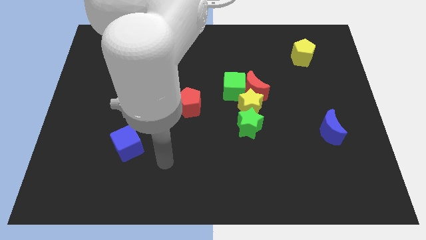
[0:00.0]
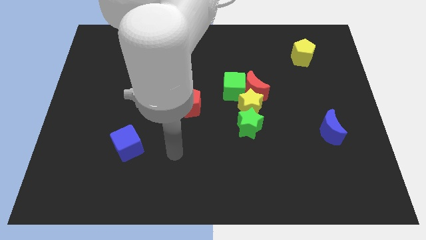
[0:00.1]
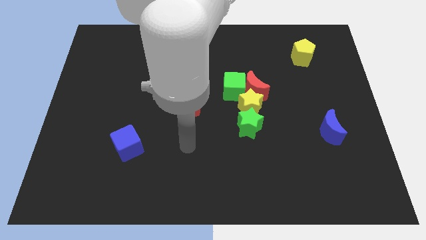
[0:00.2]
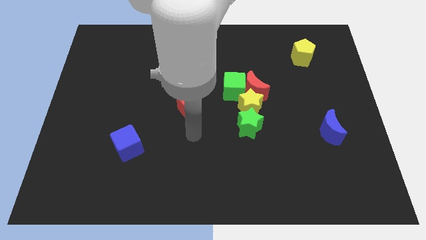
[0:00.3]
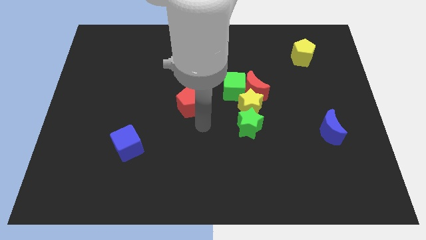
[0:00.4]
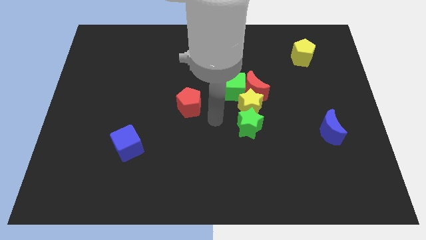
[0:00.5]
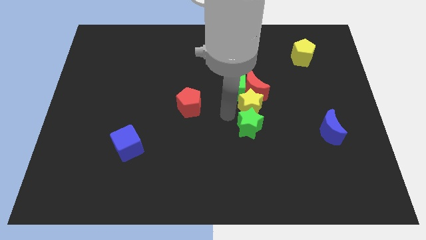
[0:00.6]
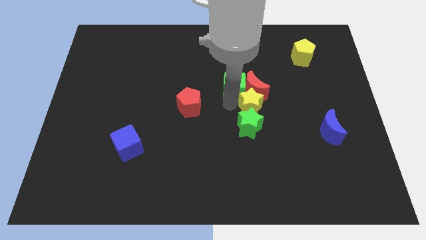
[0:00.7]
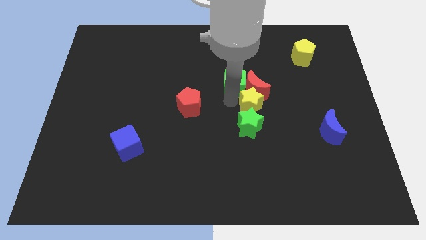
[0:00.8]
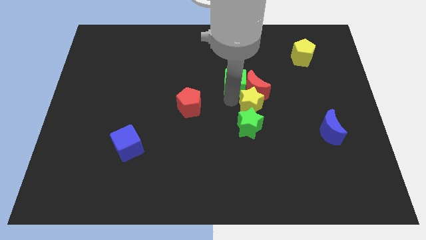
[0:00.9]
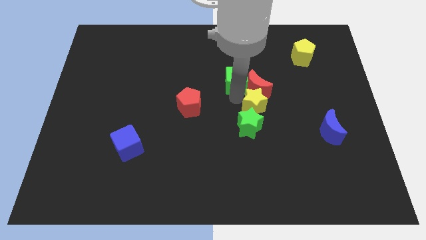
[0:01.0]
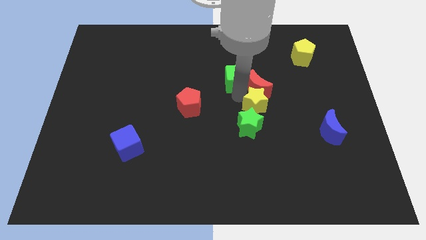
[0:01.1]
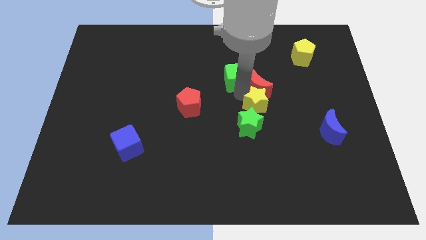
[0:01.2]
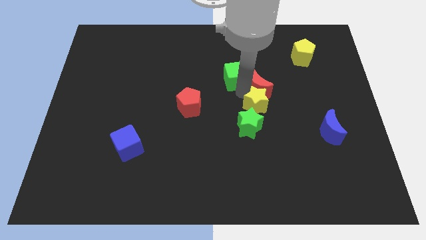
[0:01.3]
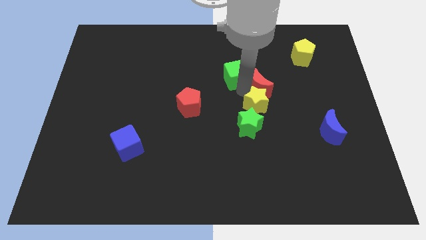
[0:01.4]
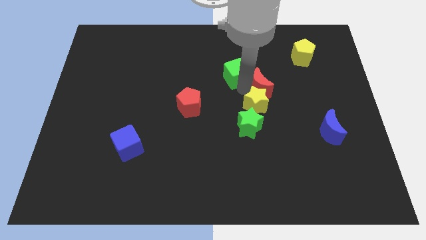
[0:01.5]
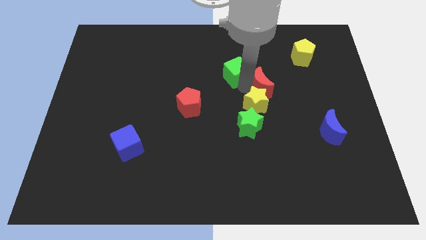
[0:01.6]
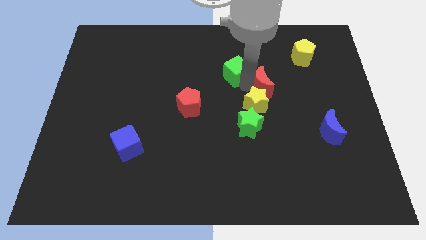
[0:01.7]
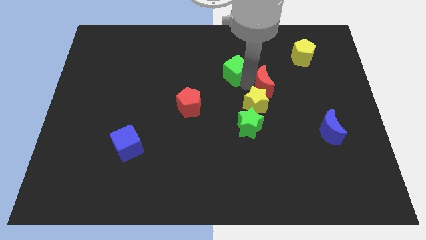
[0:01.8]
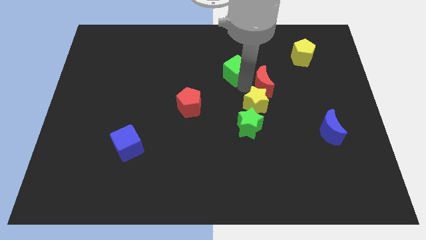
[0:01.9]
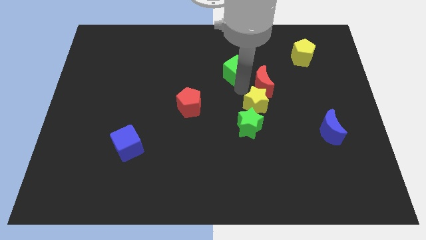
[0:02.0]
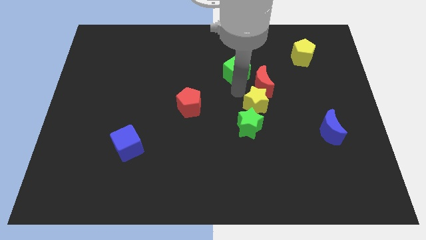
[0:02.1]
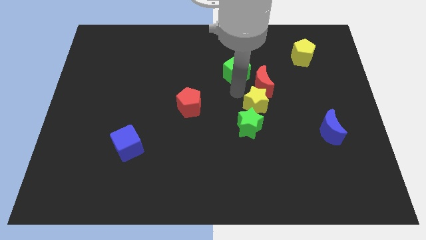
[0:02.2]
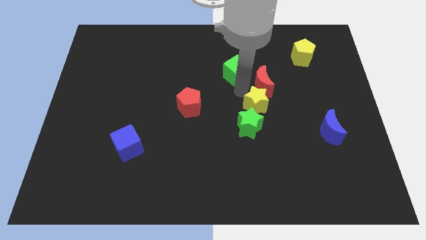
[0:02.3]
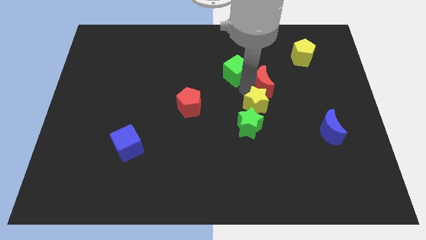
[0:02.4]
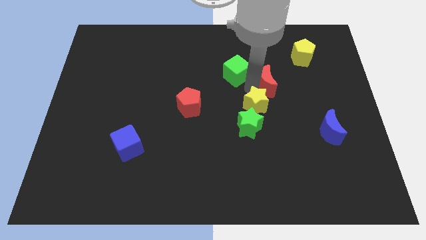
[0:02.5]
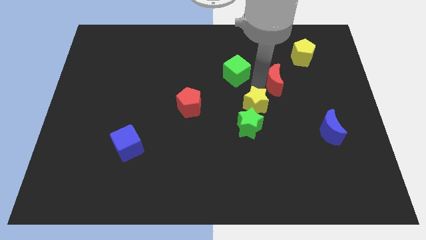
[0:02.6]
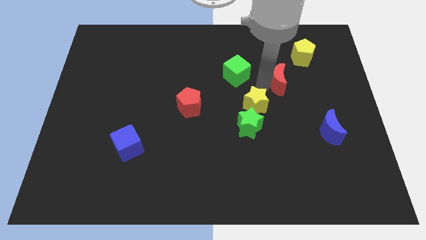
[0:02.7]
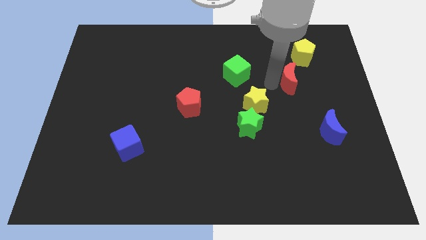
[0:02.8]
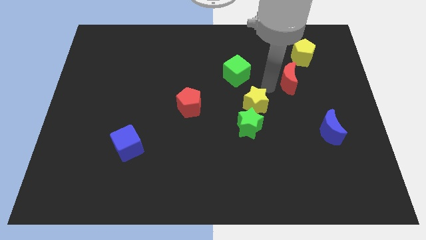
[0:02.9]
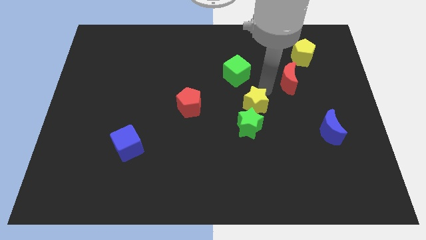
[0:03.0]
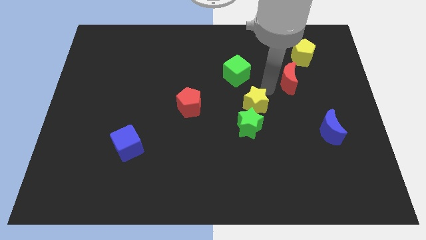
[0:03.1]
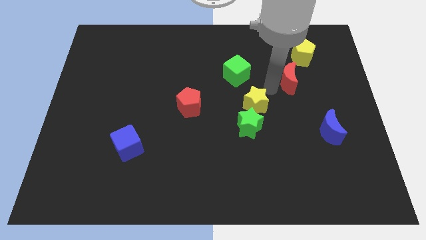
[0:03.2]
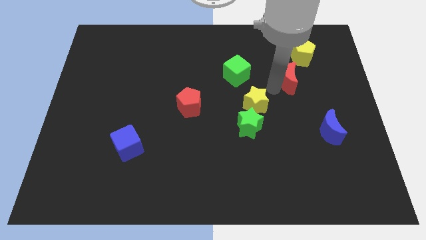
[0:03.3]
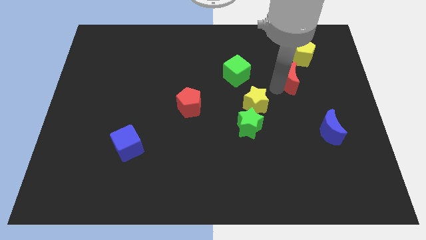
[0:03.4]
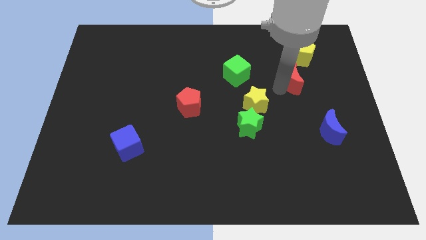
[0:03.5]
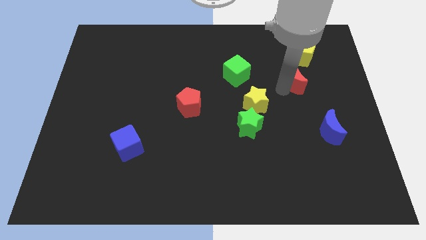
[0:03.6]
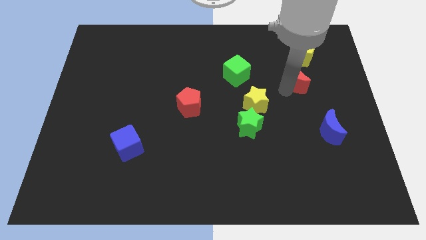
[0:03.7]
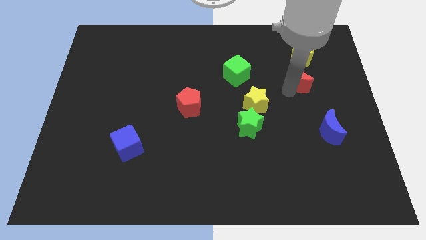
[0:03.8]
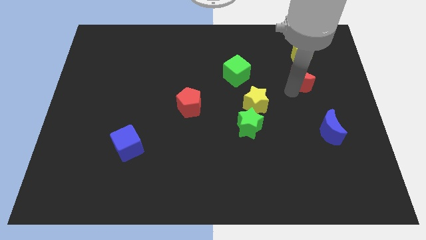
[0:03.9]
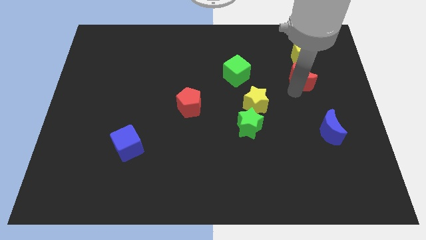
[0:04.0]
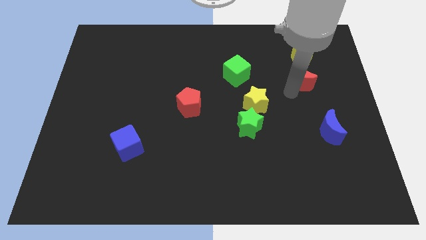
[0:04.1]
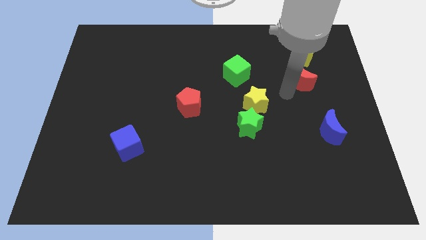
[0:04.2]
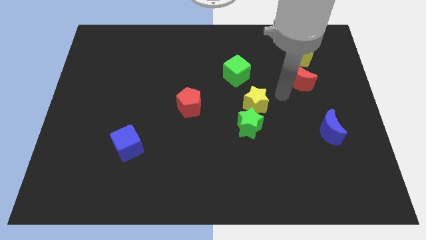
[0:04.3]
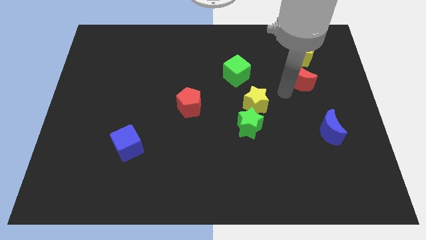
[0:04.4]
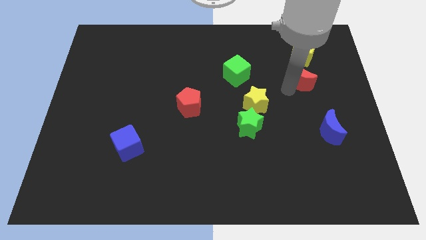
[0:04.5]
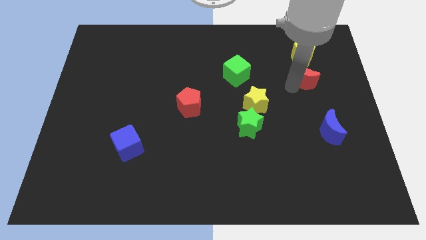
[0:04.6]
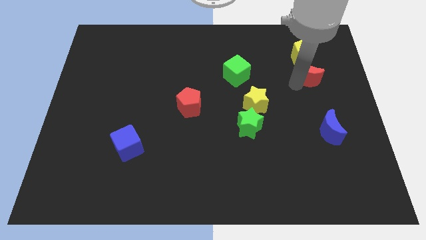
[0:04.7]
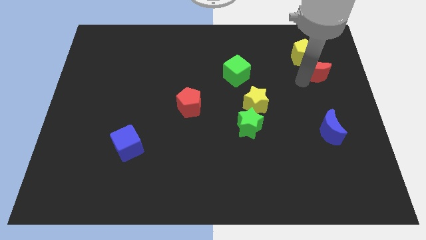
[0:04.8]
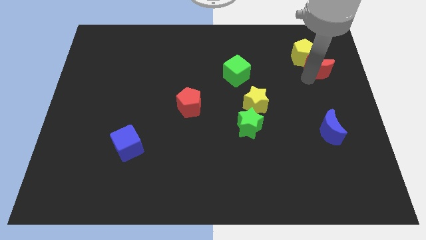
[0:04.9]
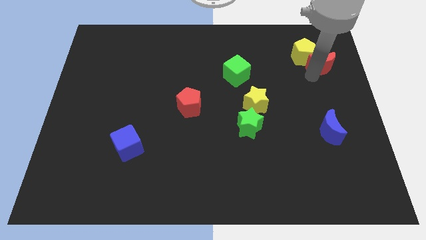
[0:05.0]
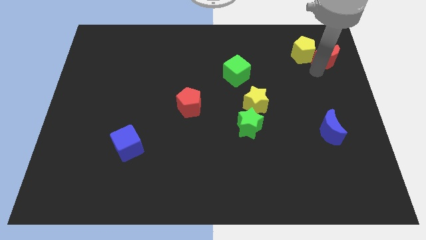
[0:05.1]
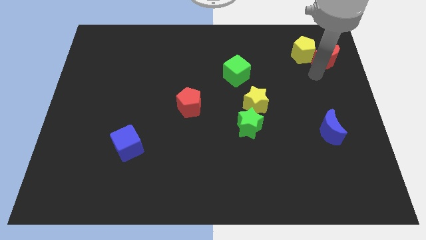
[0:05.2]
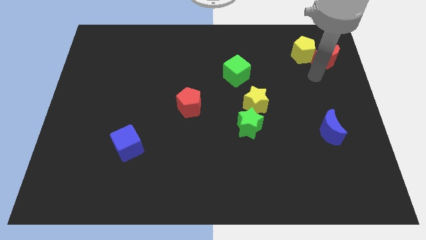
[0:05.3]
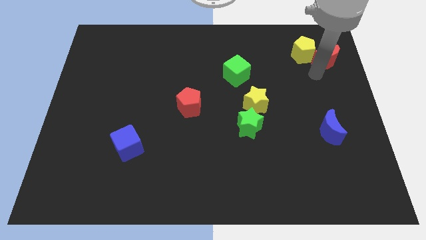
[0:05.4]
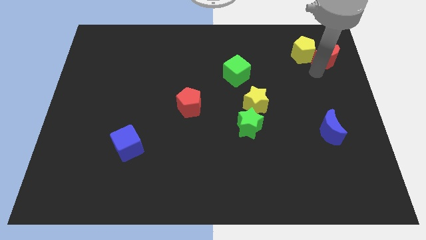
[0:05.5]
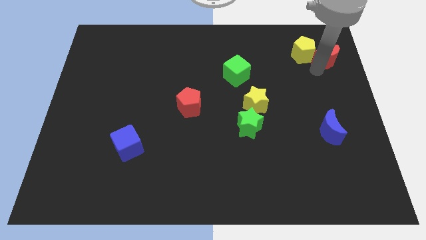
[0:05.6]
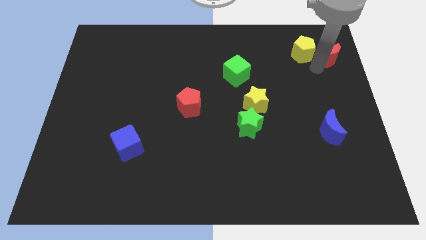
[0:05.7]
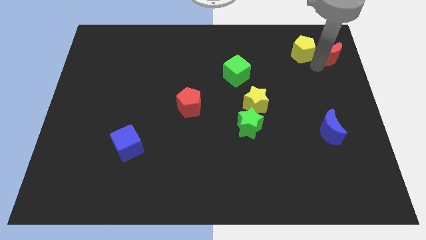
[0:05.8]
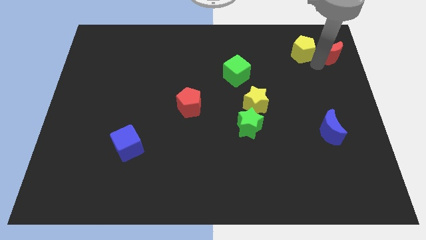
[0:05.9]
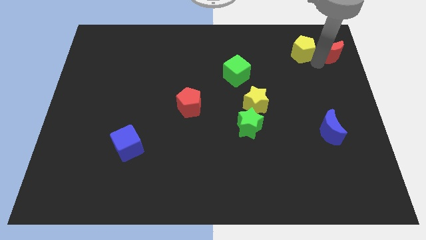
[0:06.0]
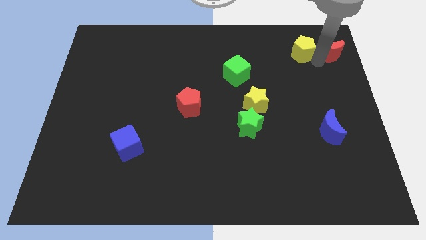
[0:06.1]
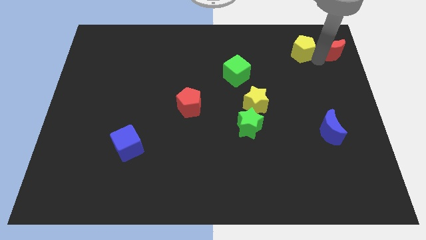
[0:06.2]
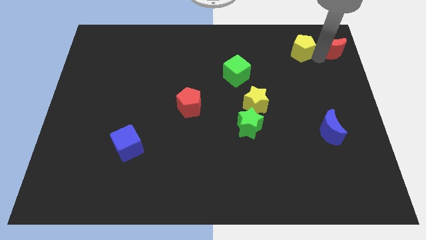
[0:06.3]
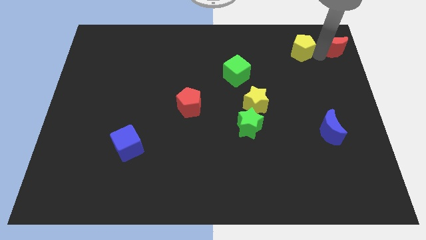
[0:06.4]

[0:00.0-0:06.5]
slide the red moon to the top right of the board

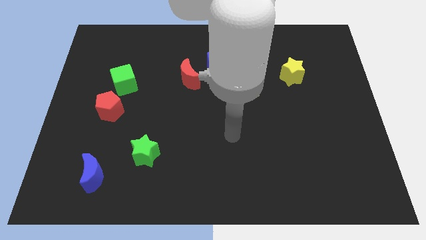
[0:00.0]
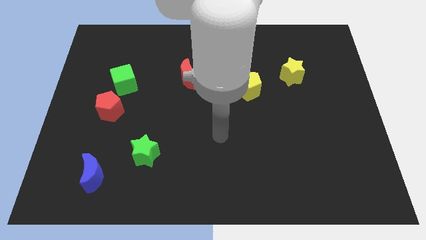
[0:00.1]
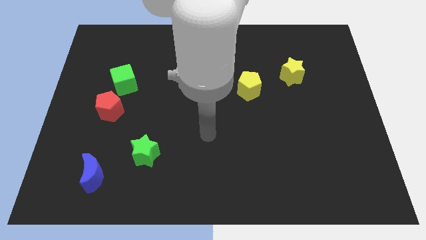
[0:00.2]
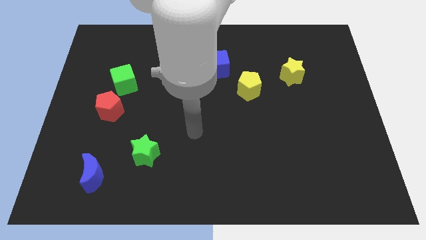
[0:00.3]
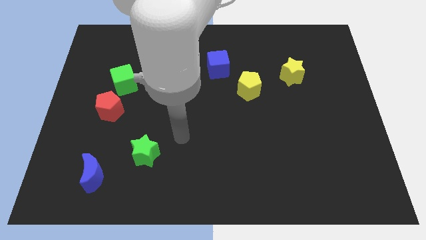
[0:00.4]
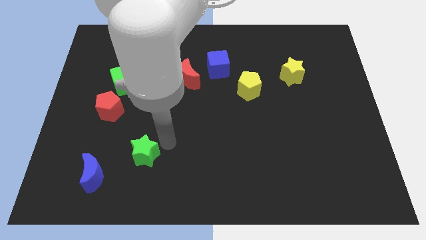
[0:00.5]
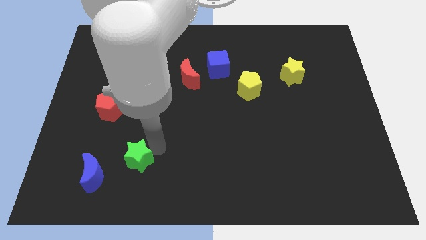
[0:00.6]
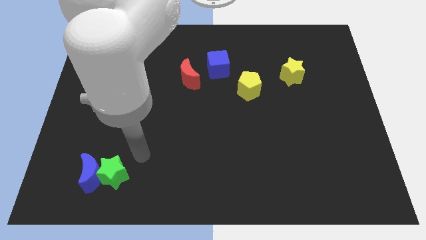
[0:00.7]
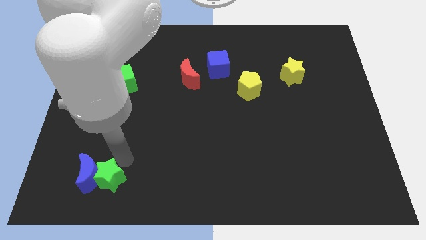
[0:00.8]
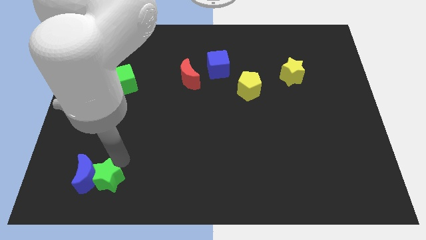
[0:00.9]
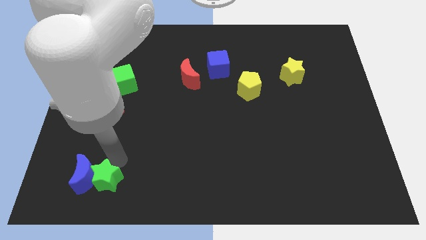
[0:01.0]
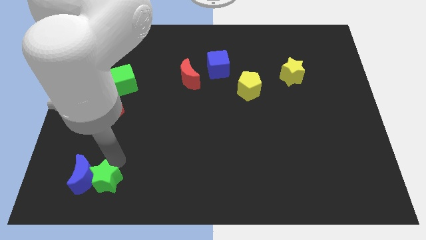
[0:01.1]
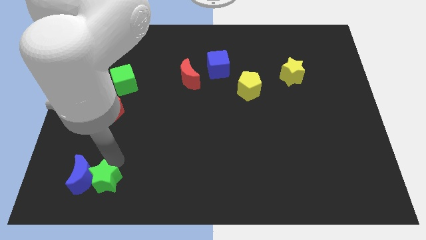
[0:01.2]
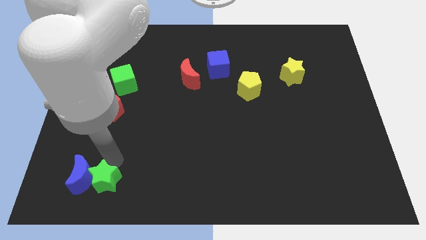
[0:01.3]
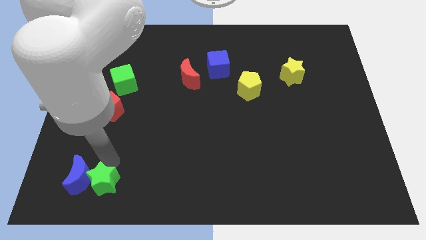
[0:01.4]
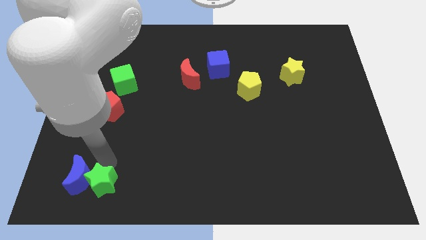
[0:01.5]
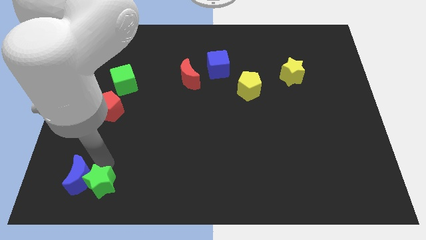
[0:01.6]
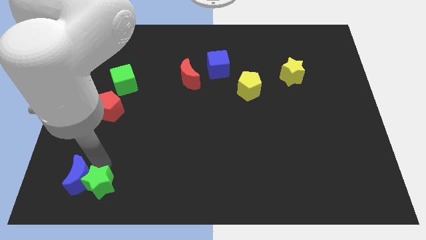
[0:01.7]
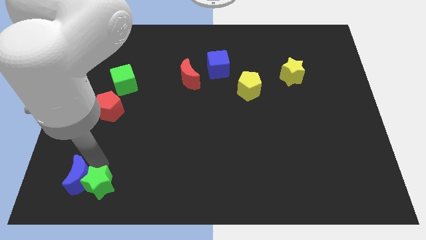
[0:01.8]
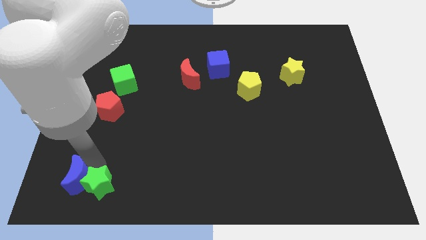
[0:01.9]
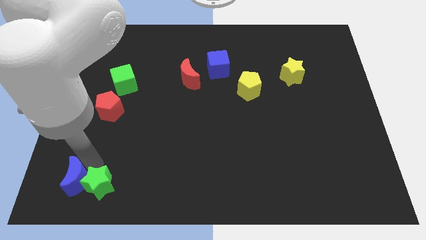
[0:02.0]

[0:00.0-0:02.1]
push the blue moon to the bottom left
